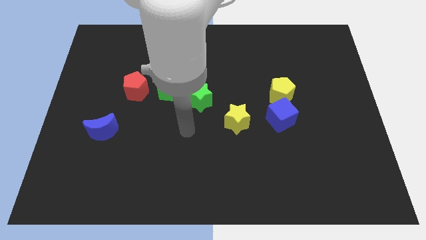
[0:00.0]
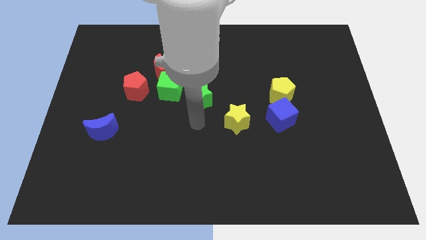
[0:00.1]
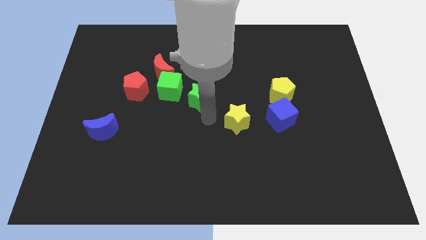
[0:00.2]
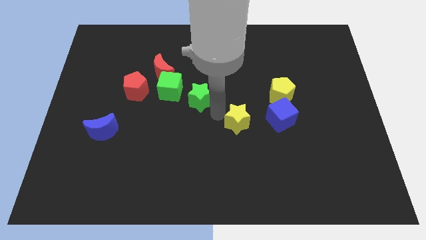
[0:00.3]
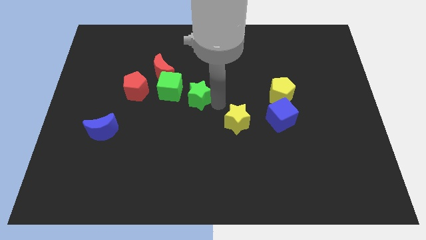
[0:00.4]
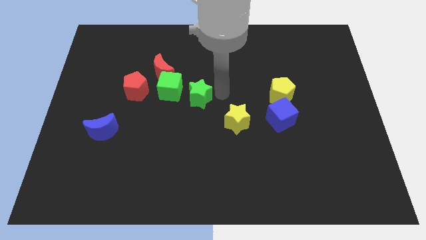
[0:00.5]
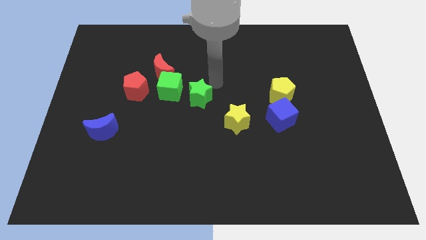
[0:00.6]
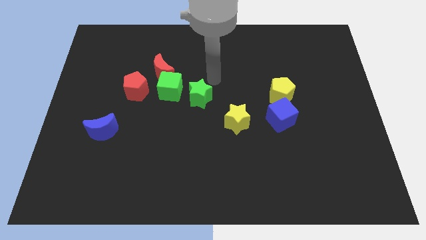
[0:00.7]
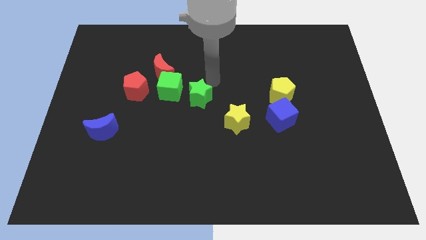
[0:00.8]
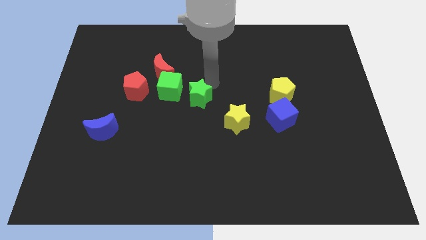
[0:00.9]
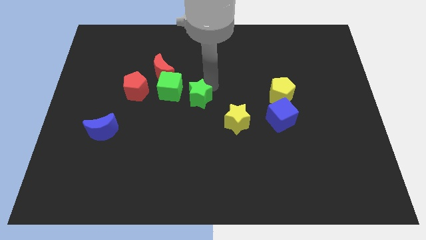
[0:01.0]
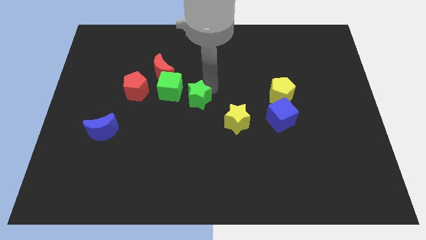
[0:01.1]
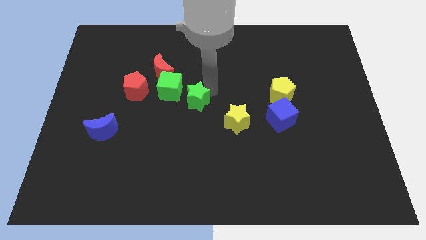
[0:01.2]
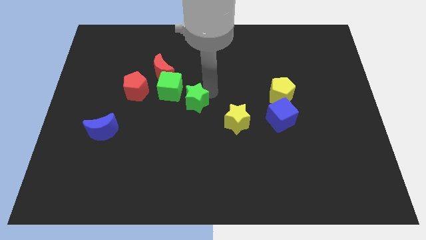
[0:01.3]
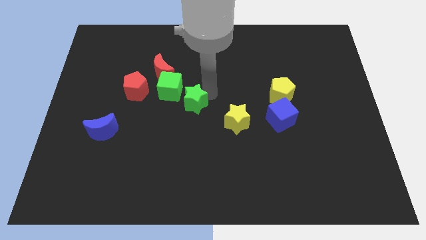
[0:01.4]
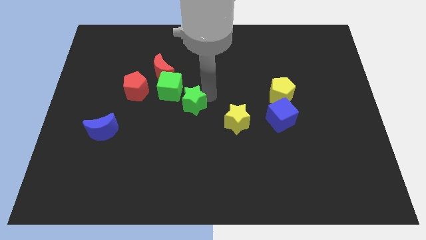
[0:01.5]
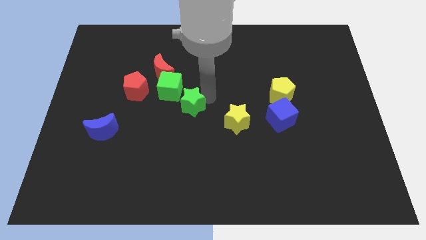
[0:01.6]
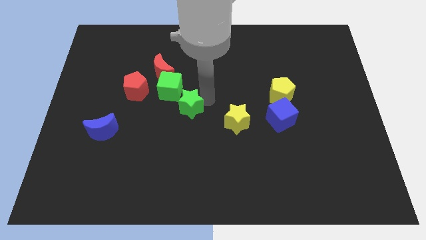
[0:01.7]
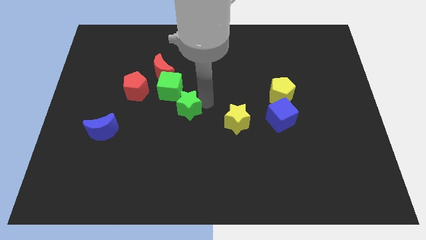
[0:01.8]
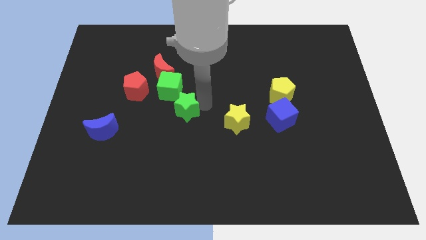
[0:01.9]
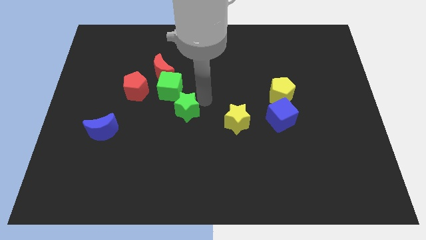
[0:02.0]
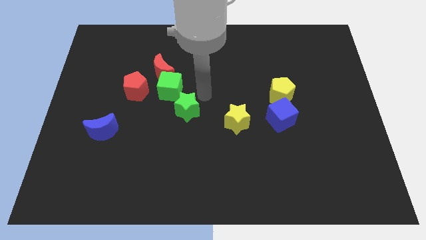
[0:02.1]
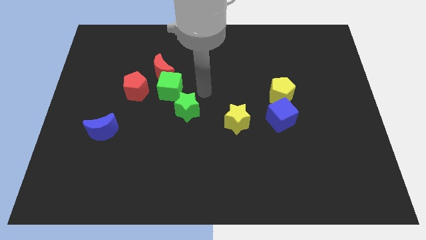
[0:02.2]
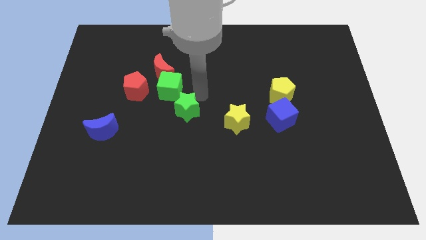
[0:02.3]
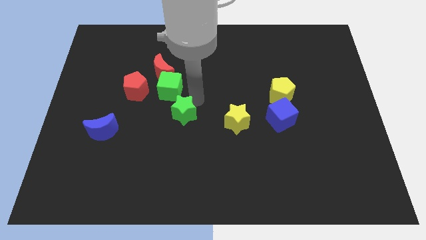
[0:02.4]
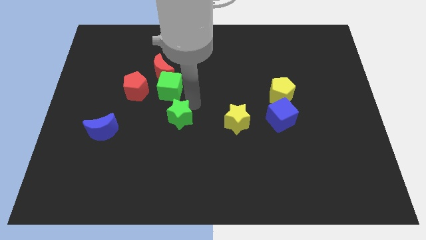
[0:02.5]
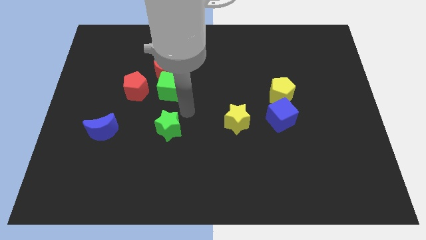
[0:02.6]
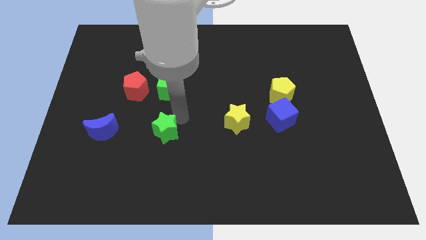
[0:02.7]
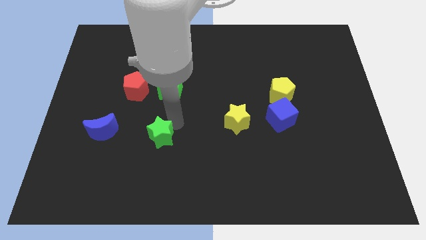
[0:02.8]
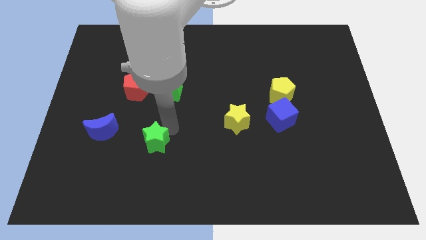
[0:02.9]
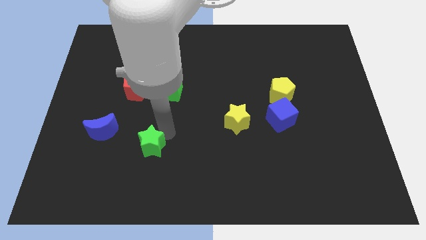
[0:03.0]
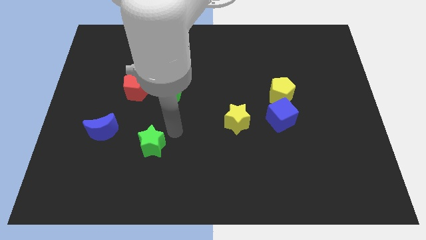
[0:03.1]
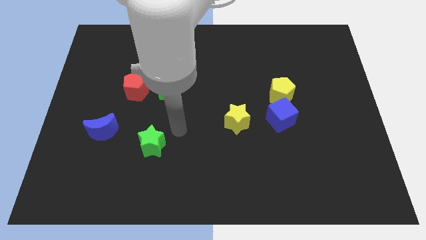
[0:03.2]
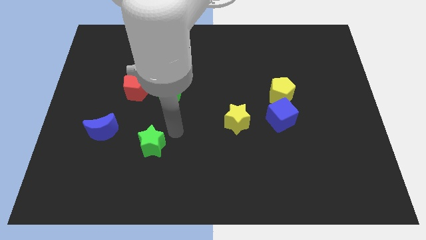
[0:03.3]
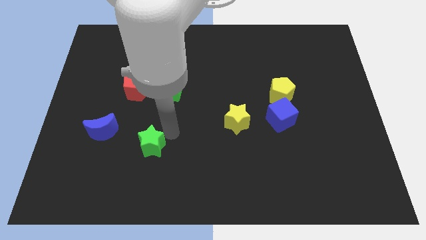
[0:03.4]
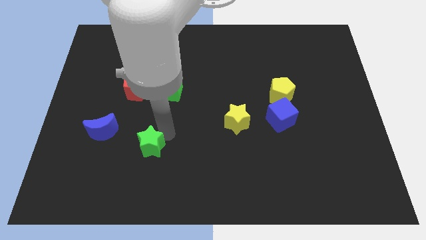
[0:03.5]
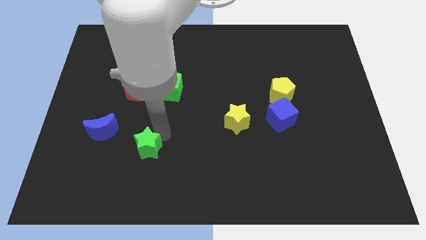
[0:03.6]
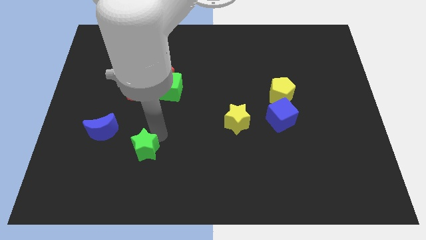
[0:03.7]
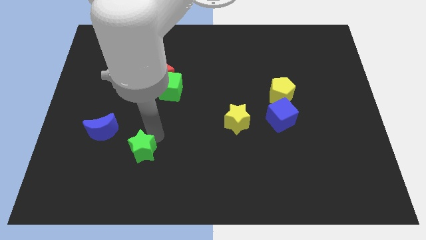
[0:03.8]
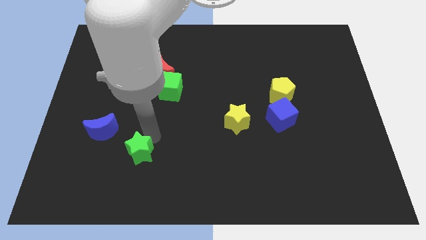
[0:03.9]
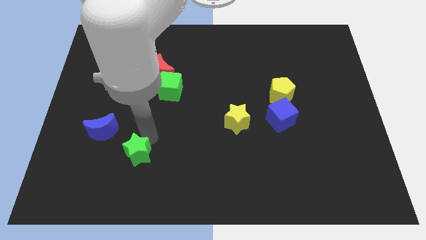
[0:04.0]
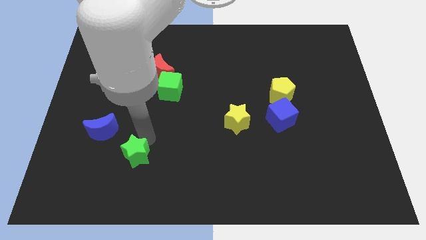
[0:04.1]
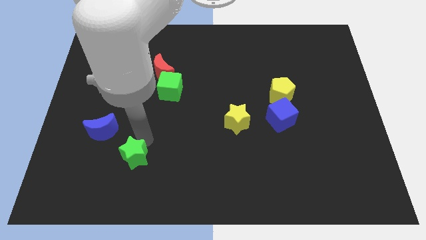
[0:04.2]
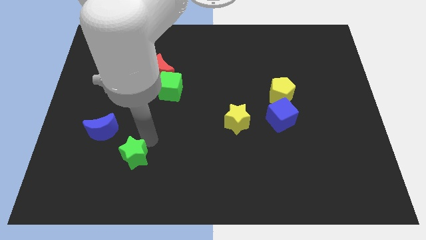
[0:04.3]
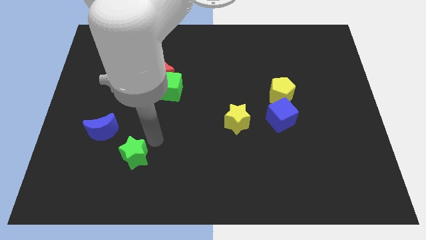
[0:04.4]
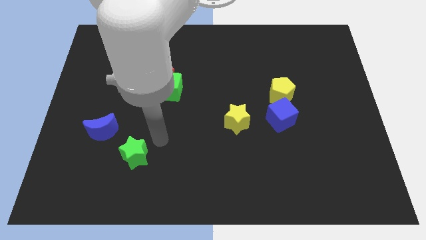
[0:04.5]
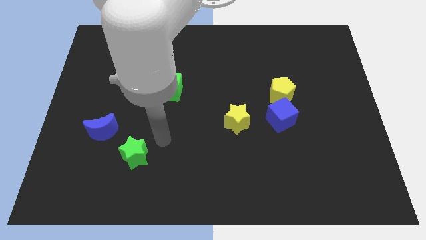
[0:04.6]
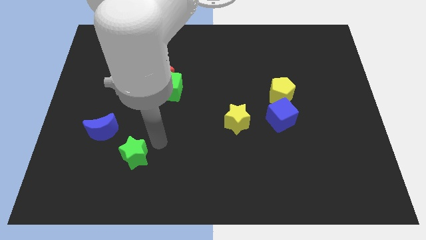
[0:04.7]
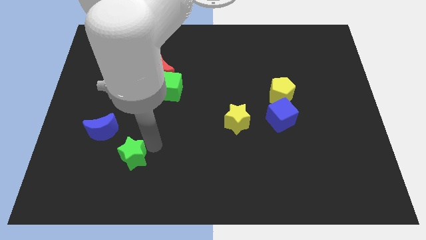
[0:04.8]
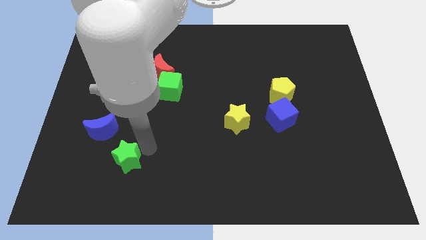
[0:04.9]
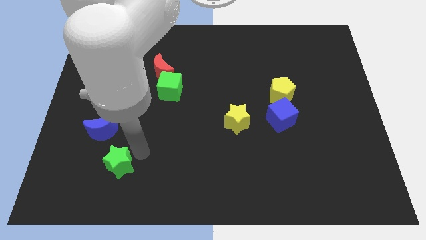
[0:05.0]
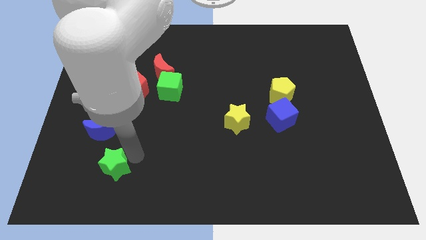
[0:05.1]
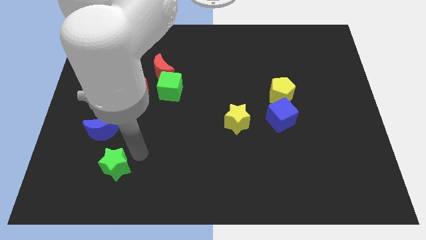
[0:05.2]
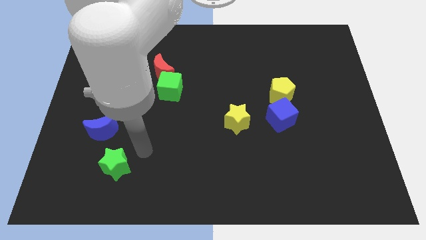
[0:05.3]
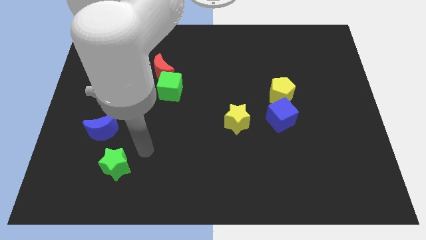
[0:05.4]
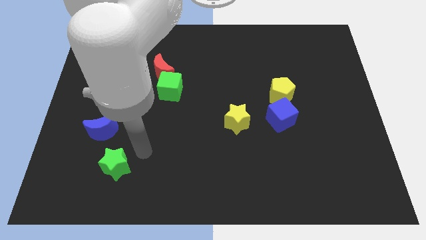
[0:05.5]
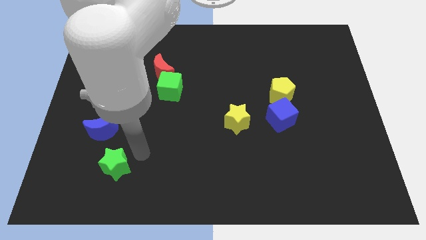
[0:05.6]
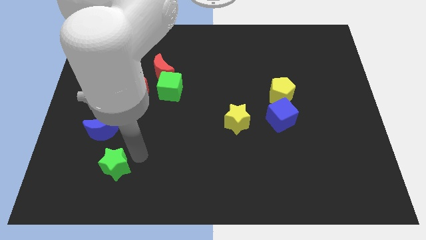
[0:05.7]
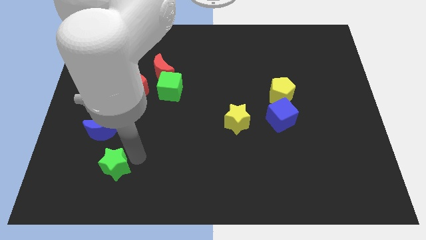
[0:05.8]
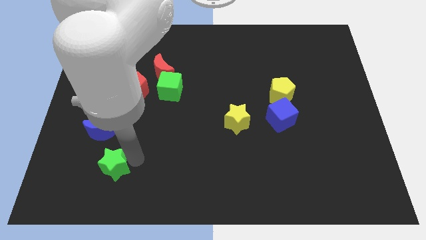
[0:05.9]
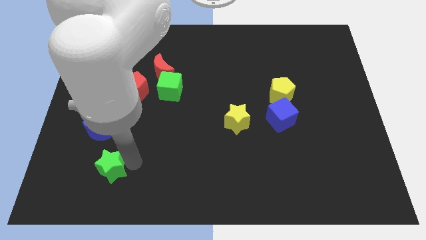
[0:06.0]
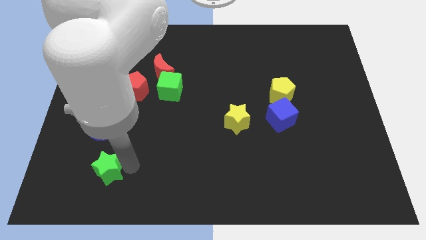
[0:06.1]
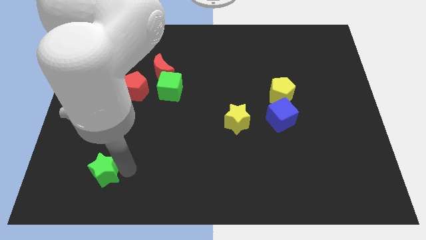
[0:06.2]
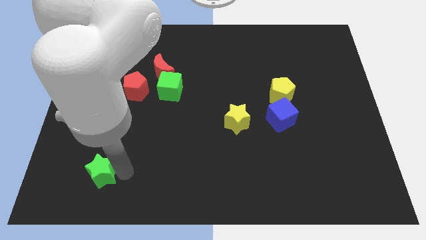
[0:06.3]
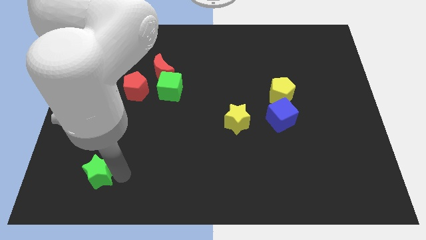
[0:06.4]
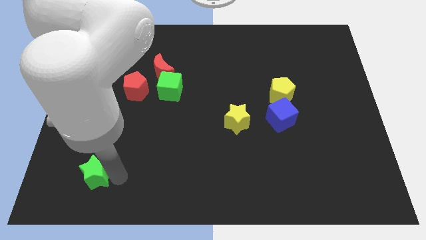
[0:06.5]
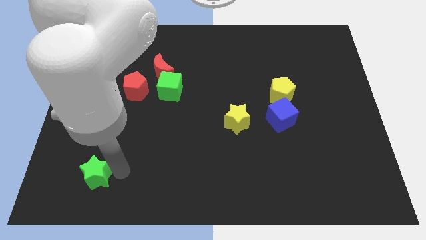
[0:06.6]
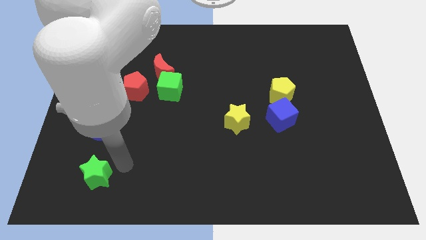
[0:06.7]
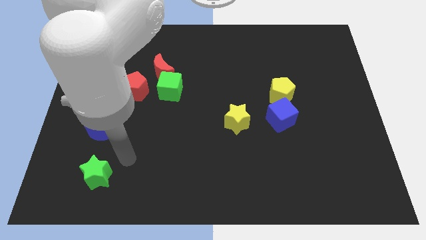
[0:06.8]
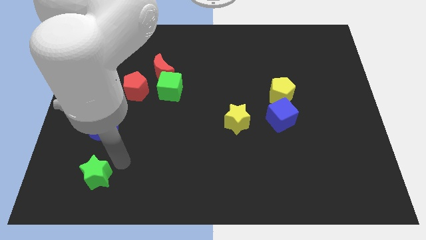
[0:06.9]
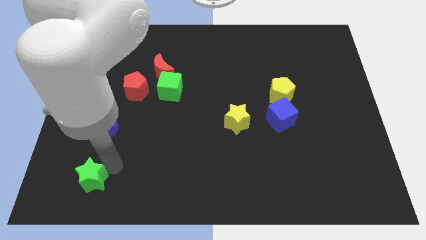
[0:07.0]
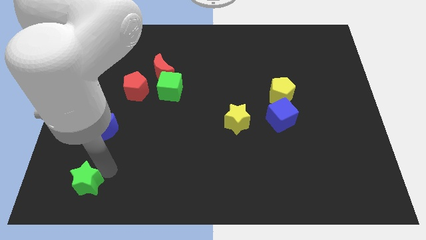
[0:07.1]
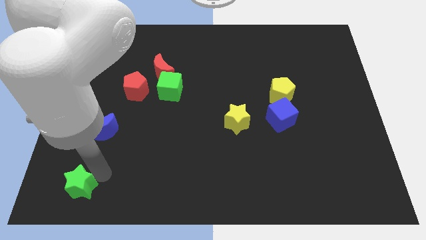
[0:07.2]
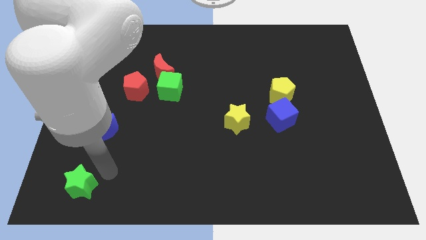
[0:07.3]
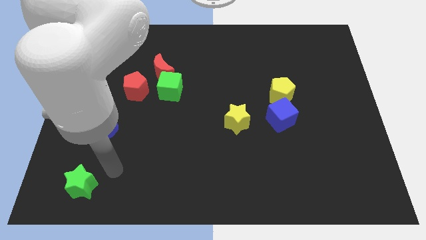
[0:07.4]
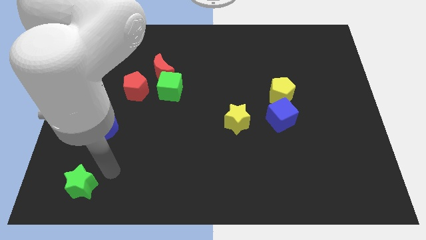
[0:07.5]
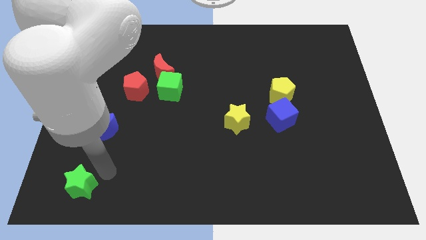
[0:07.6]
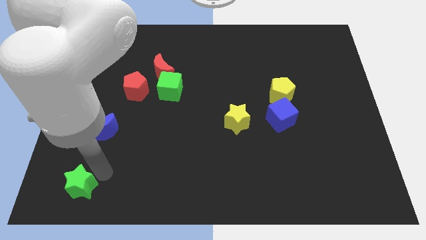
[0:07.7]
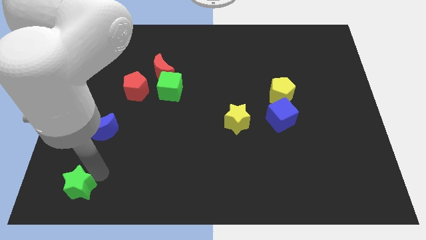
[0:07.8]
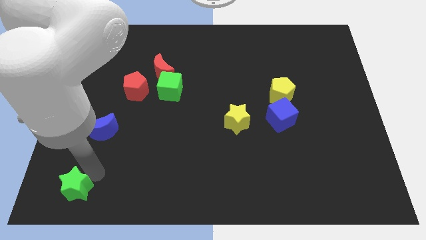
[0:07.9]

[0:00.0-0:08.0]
push the green star to the lower left corner
